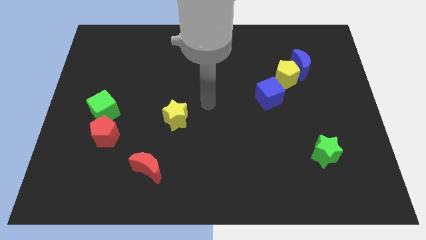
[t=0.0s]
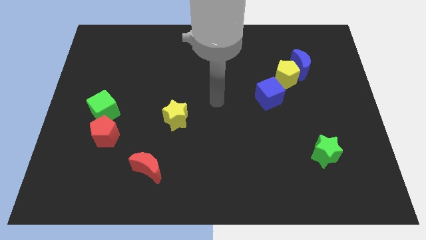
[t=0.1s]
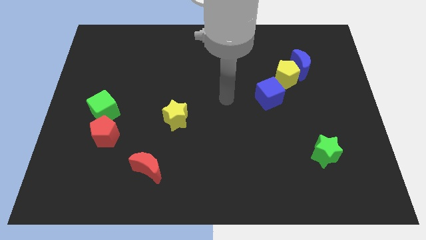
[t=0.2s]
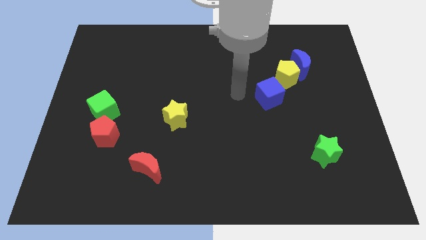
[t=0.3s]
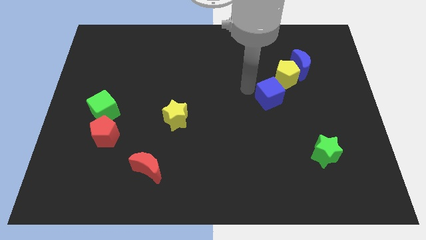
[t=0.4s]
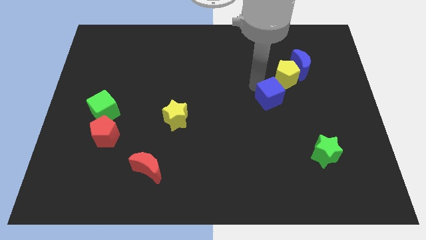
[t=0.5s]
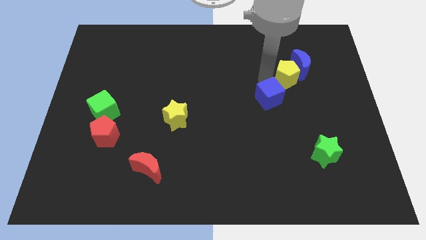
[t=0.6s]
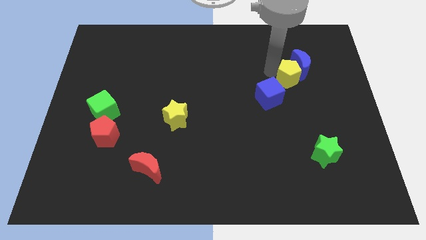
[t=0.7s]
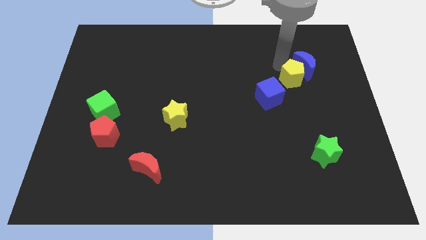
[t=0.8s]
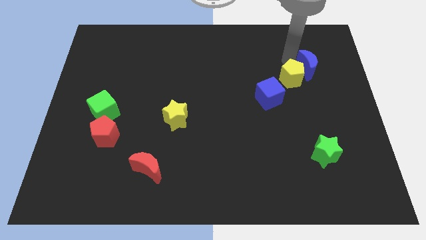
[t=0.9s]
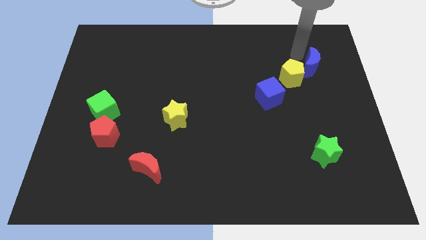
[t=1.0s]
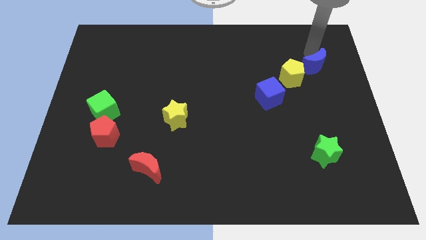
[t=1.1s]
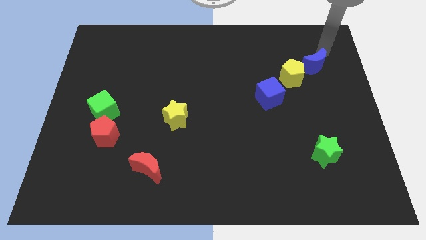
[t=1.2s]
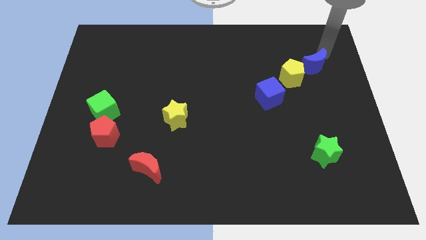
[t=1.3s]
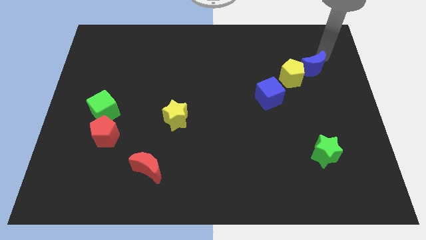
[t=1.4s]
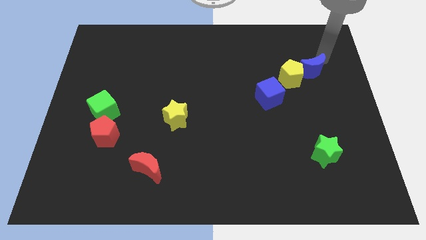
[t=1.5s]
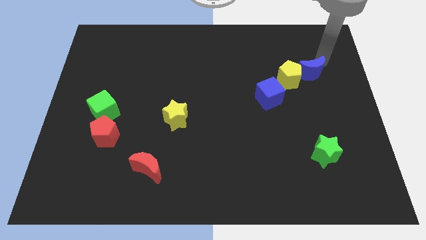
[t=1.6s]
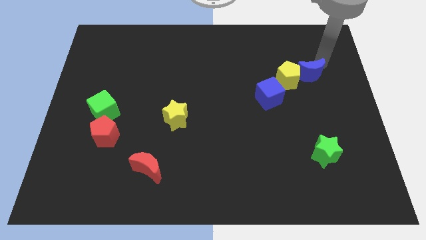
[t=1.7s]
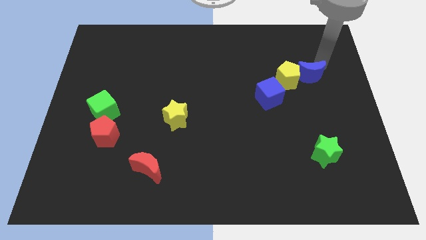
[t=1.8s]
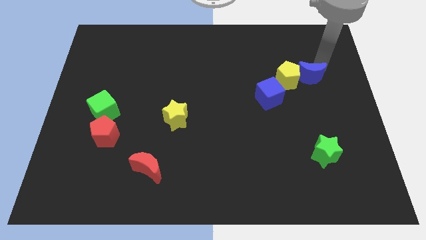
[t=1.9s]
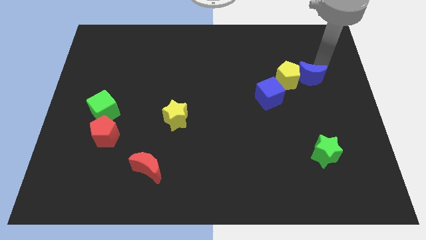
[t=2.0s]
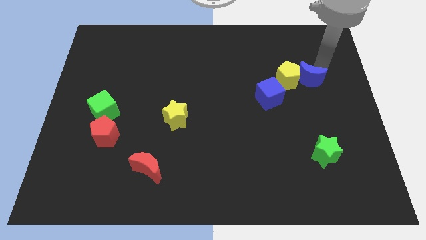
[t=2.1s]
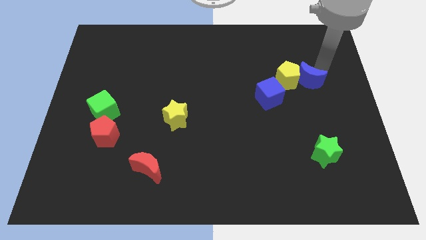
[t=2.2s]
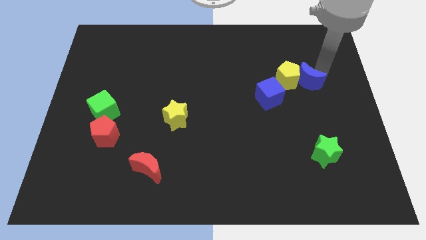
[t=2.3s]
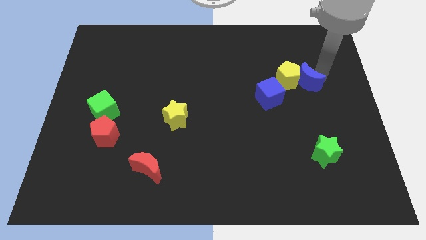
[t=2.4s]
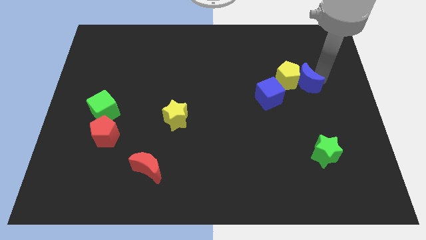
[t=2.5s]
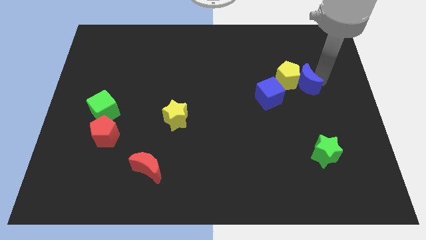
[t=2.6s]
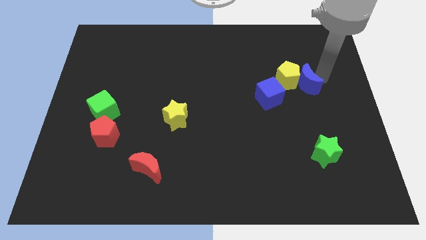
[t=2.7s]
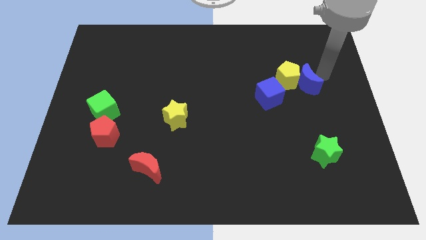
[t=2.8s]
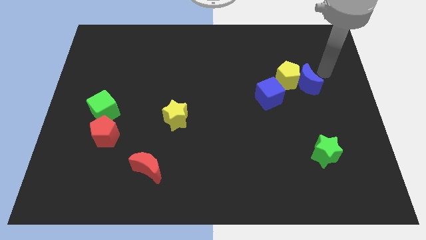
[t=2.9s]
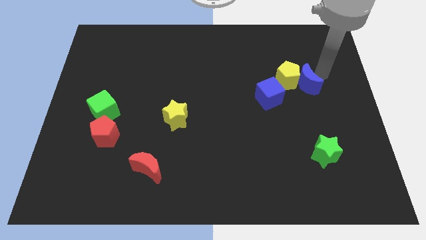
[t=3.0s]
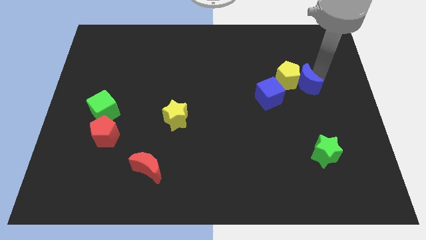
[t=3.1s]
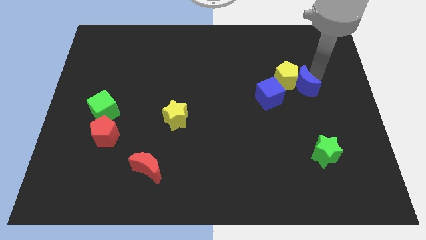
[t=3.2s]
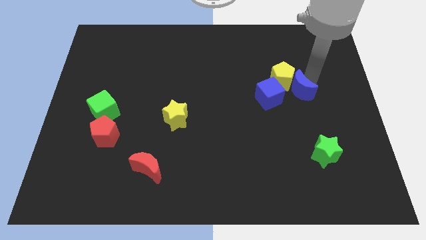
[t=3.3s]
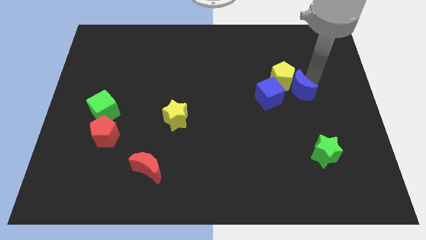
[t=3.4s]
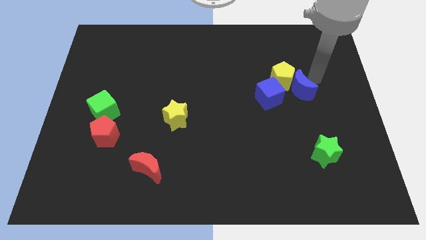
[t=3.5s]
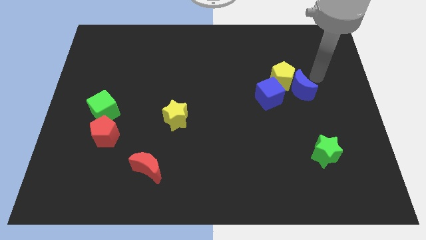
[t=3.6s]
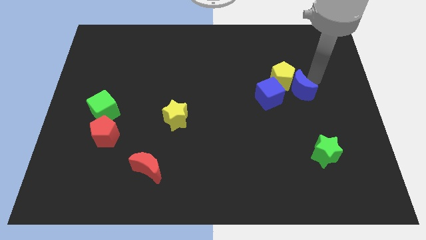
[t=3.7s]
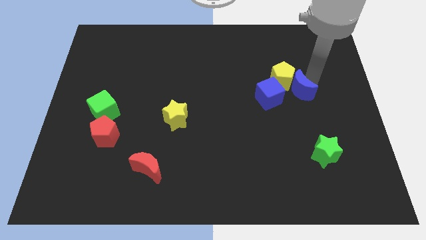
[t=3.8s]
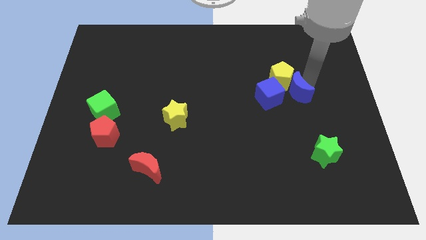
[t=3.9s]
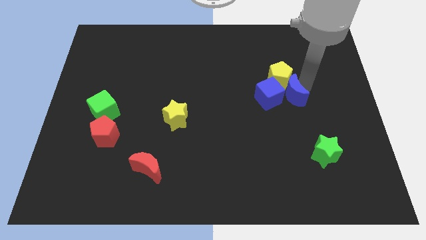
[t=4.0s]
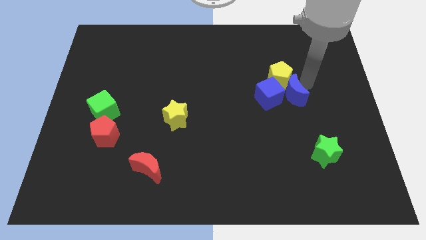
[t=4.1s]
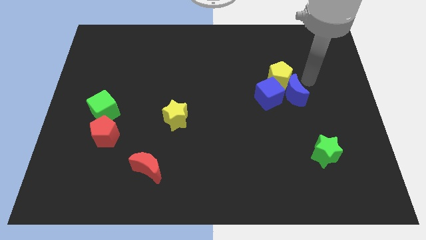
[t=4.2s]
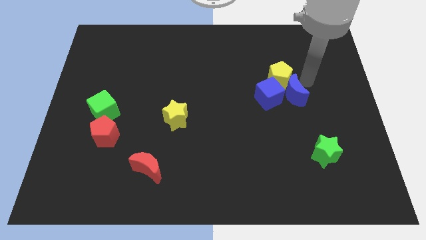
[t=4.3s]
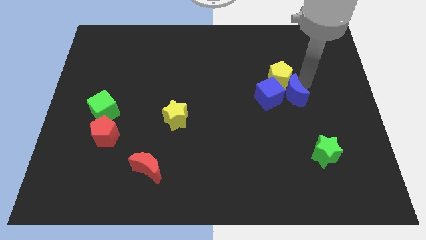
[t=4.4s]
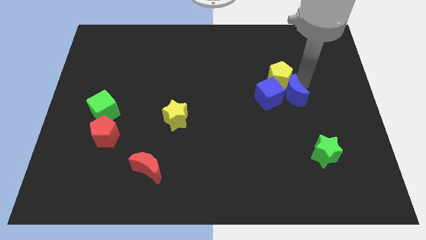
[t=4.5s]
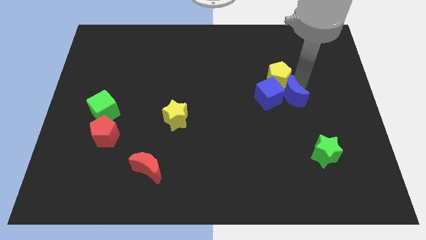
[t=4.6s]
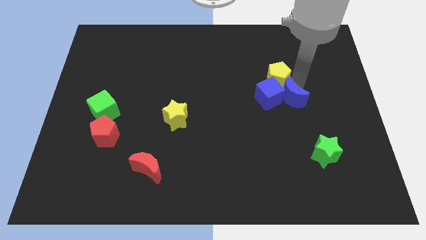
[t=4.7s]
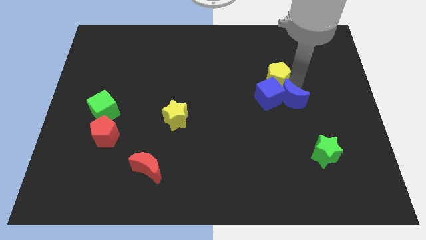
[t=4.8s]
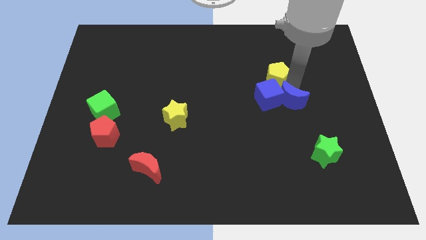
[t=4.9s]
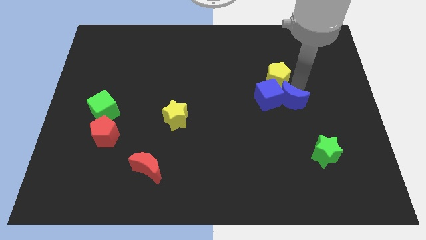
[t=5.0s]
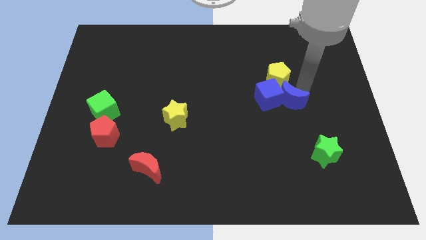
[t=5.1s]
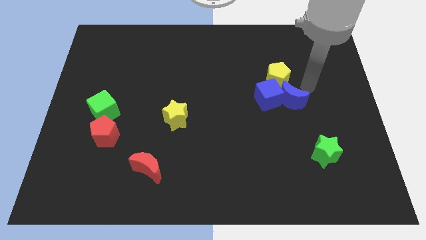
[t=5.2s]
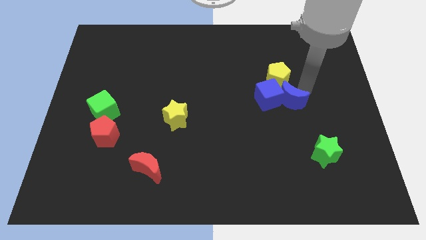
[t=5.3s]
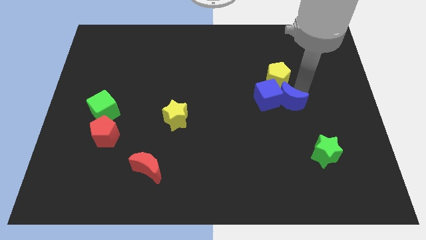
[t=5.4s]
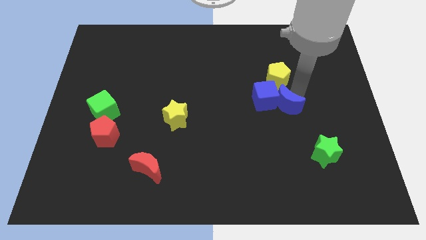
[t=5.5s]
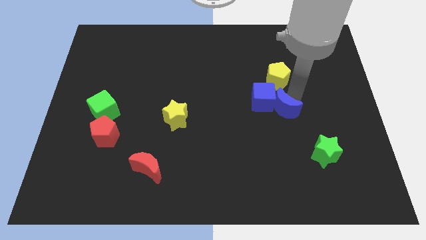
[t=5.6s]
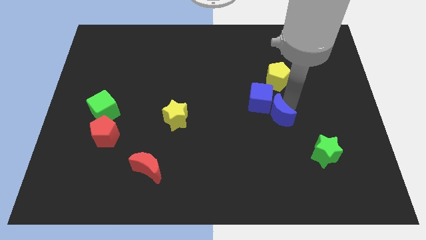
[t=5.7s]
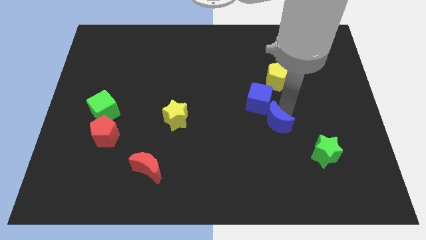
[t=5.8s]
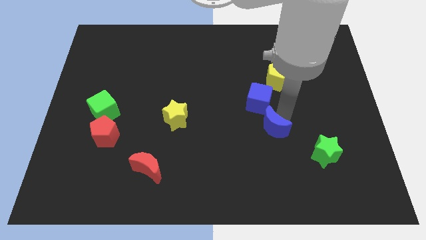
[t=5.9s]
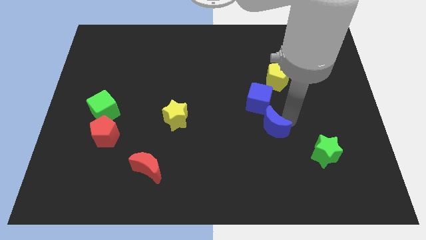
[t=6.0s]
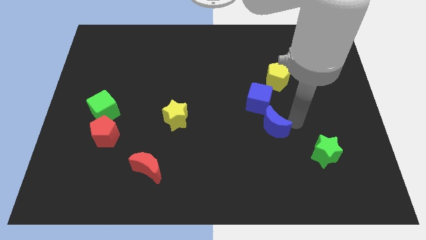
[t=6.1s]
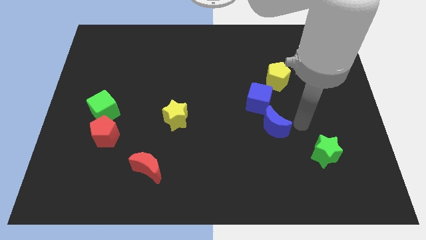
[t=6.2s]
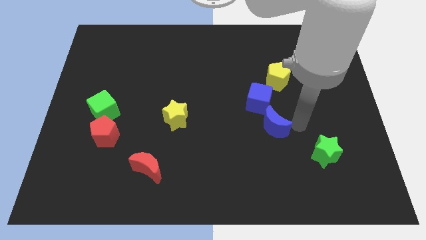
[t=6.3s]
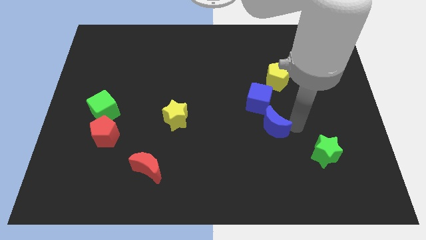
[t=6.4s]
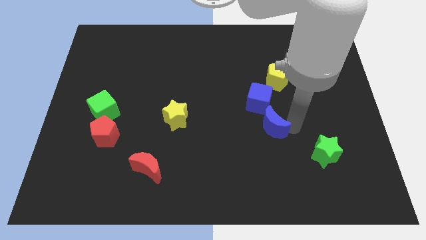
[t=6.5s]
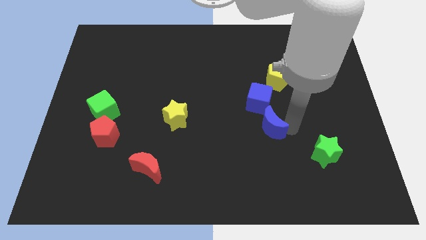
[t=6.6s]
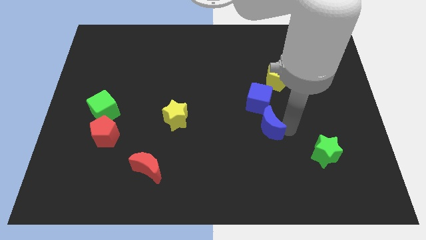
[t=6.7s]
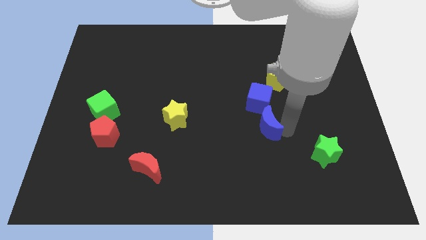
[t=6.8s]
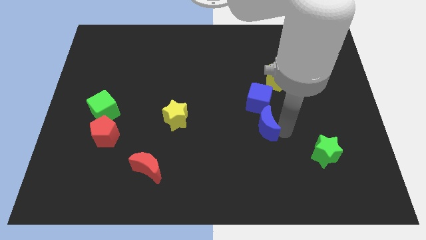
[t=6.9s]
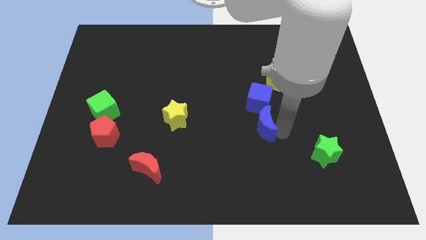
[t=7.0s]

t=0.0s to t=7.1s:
push the blue moon down and to the left

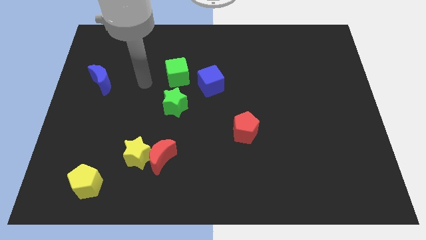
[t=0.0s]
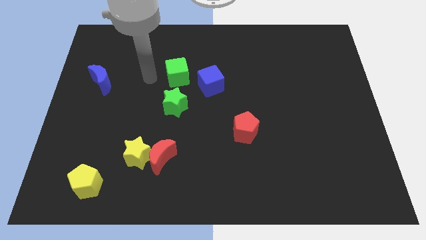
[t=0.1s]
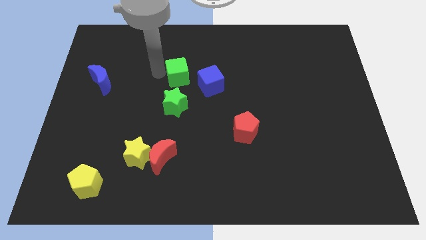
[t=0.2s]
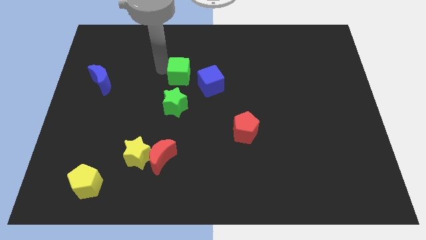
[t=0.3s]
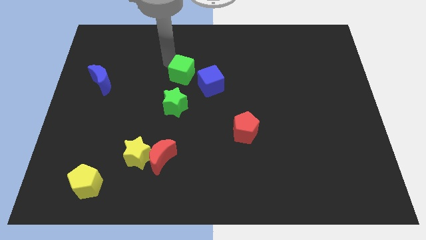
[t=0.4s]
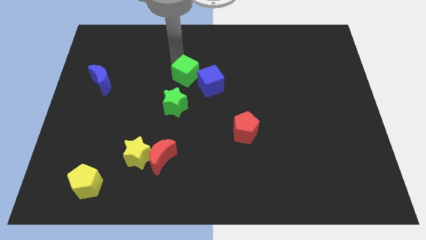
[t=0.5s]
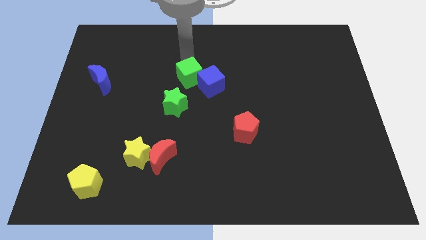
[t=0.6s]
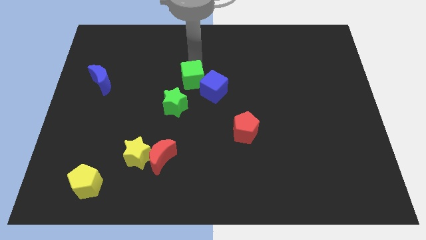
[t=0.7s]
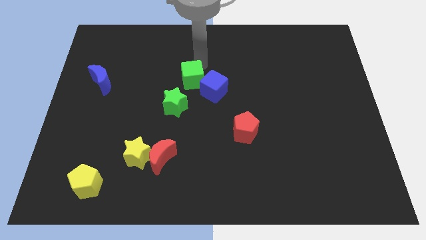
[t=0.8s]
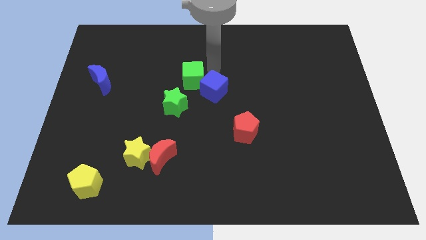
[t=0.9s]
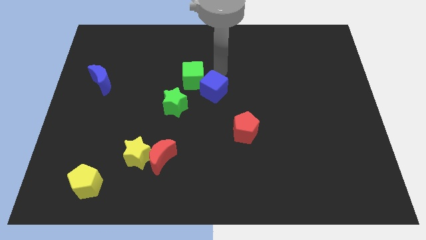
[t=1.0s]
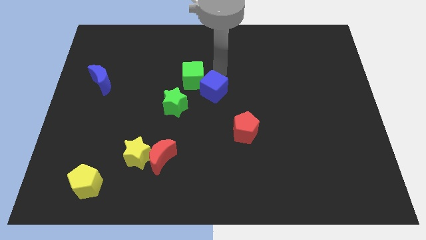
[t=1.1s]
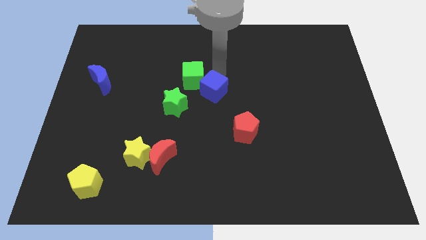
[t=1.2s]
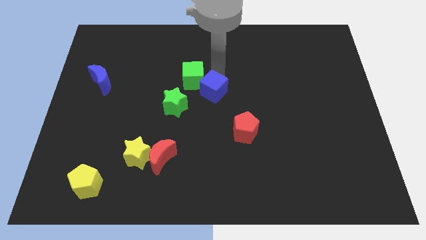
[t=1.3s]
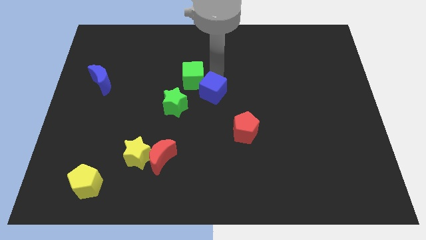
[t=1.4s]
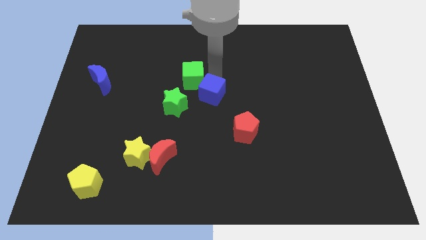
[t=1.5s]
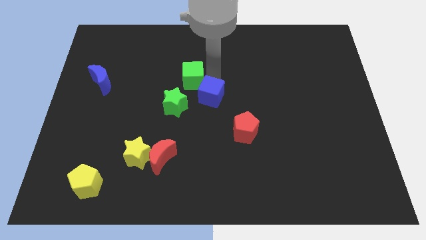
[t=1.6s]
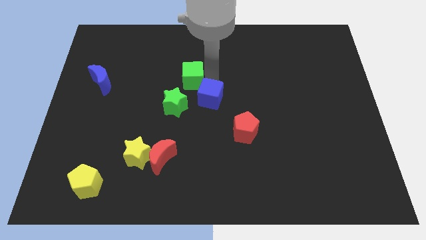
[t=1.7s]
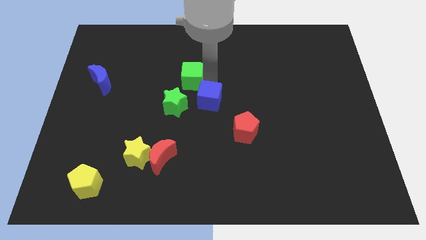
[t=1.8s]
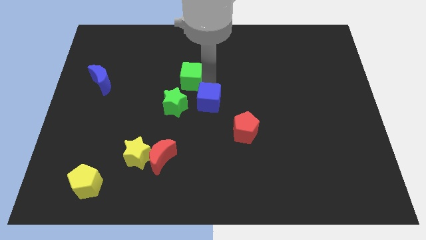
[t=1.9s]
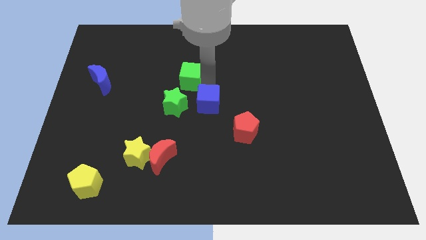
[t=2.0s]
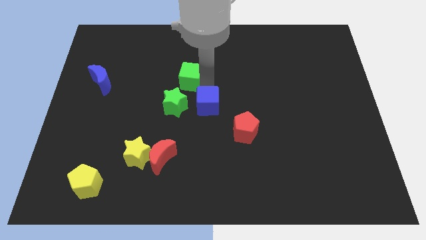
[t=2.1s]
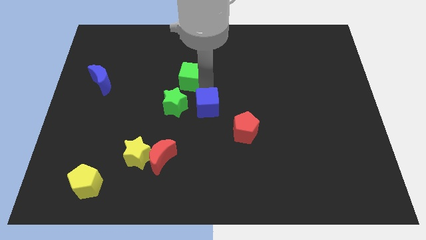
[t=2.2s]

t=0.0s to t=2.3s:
push the blue cube down somewhat
